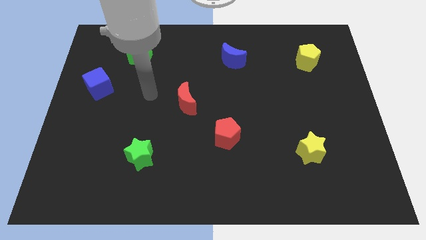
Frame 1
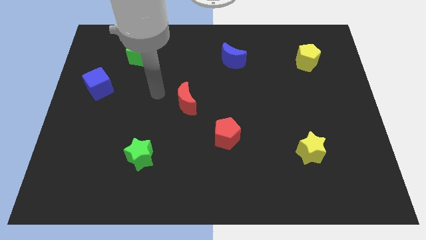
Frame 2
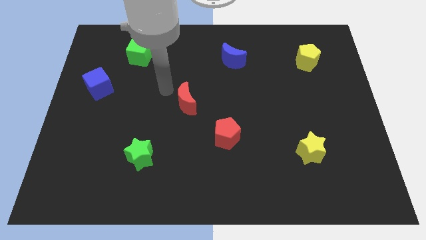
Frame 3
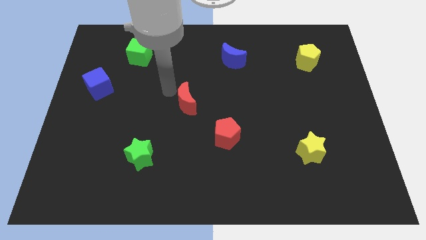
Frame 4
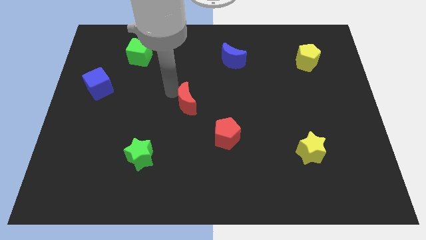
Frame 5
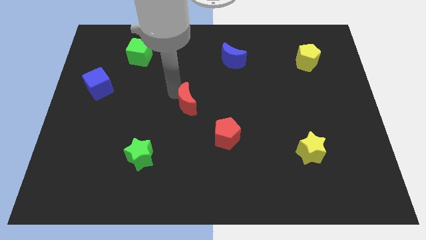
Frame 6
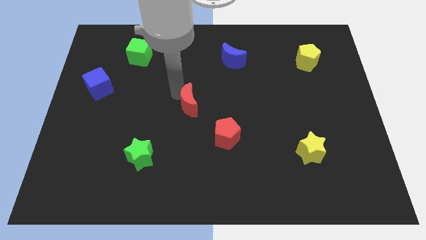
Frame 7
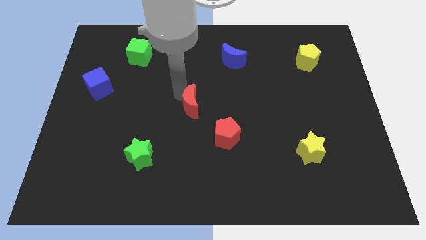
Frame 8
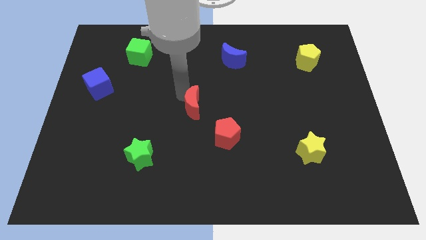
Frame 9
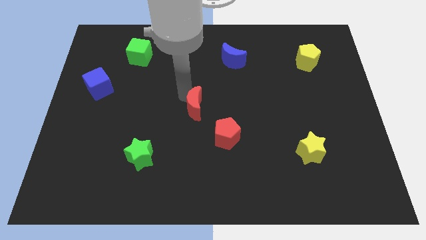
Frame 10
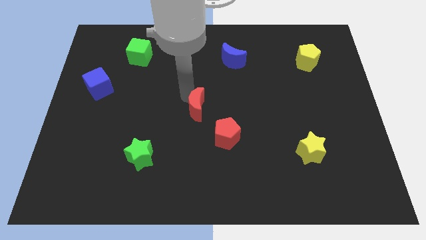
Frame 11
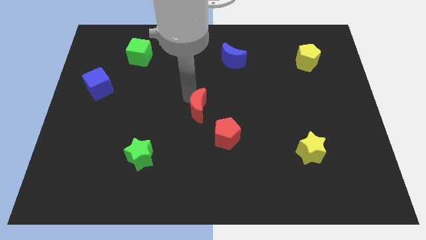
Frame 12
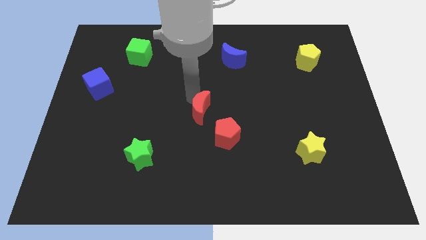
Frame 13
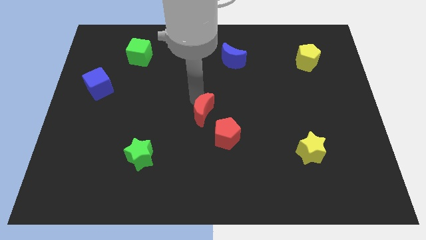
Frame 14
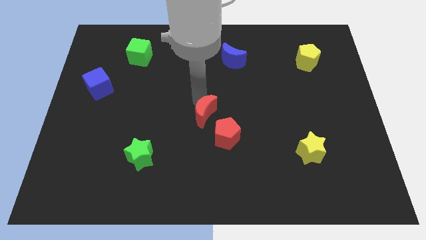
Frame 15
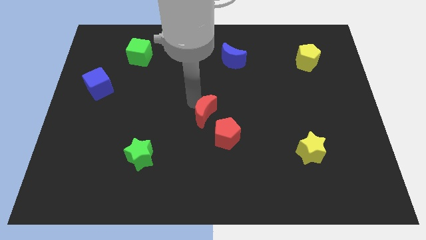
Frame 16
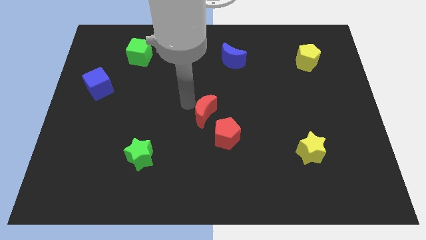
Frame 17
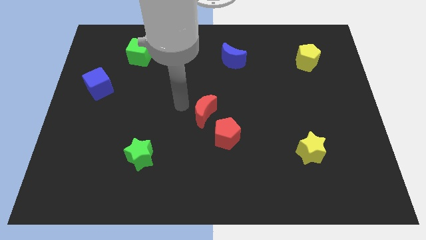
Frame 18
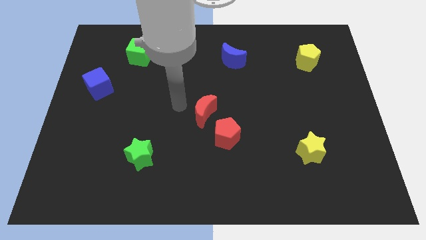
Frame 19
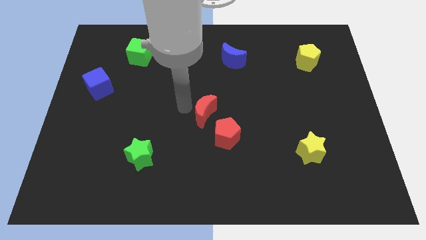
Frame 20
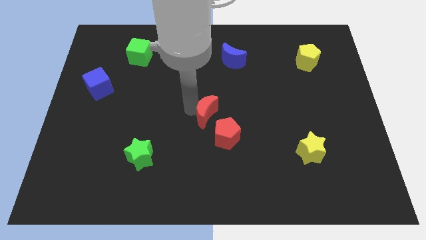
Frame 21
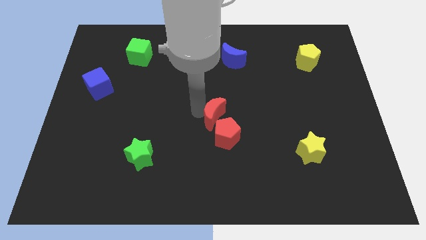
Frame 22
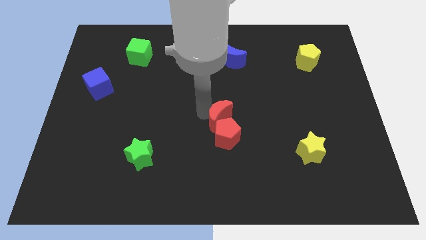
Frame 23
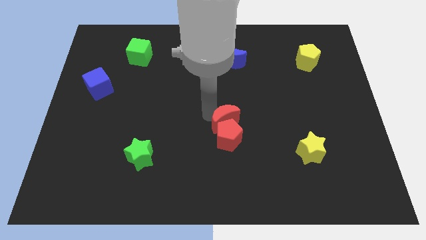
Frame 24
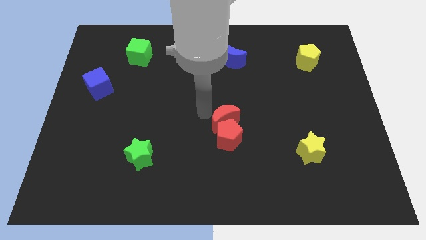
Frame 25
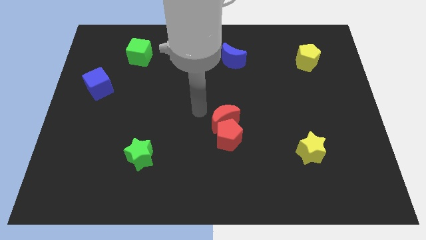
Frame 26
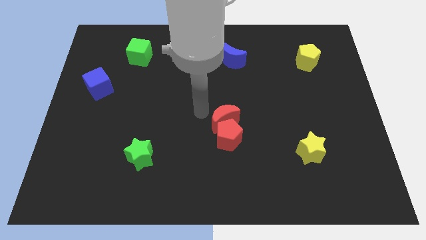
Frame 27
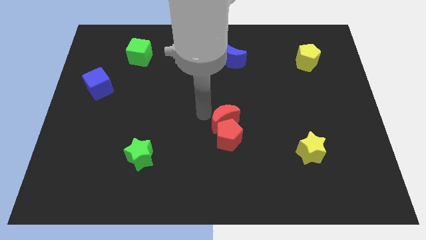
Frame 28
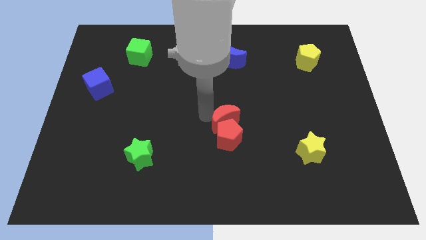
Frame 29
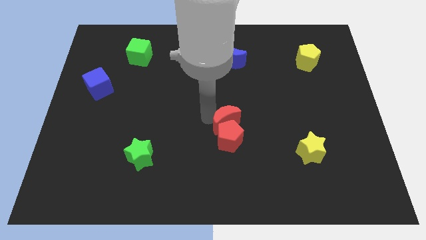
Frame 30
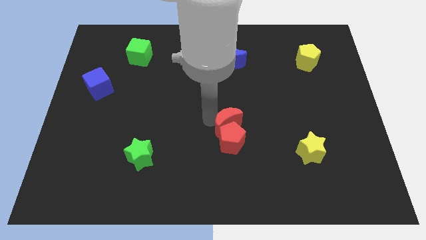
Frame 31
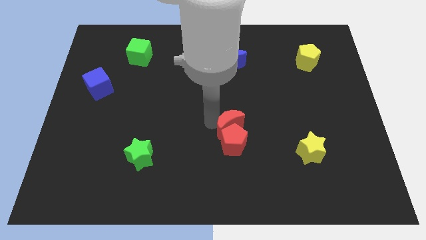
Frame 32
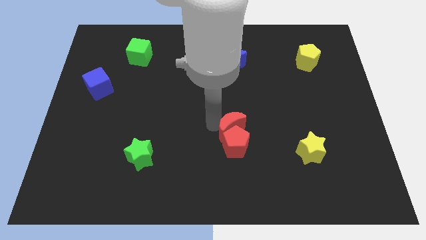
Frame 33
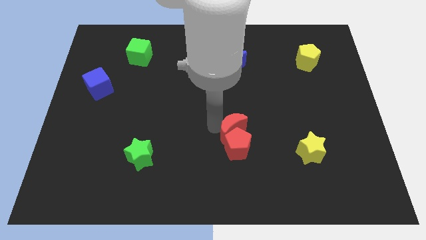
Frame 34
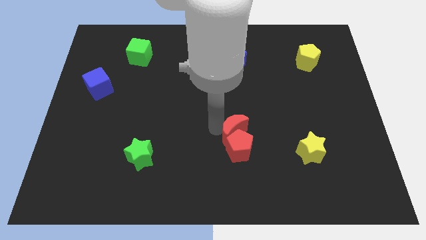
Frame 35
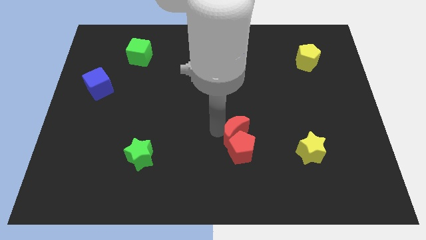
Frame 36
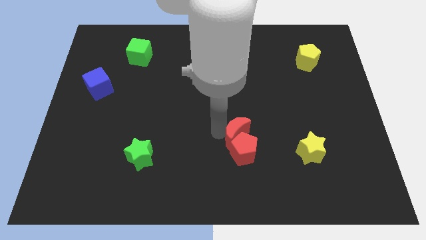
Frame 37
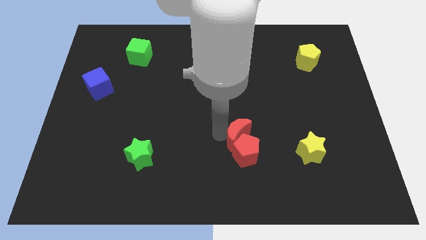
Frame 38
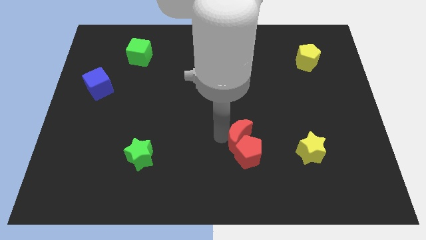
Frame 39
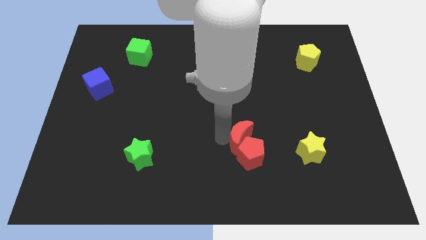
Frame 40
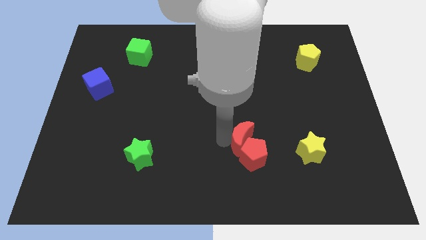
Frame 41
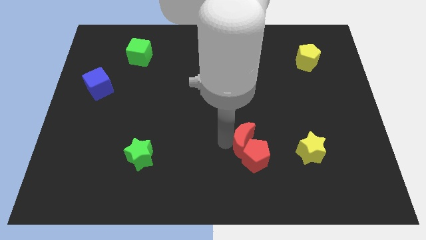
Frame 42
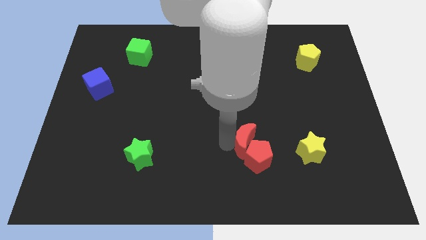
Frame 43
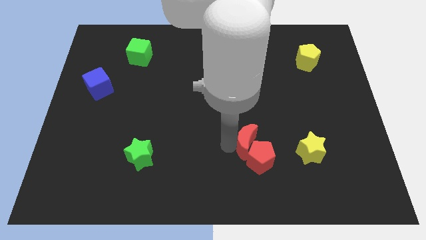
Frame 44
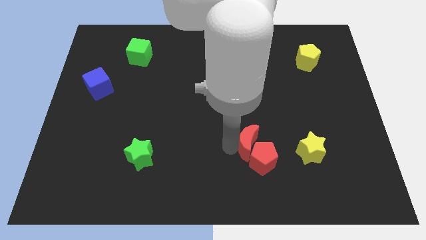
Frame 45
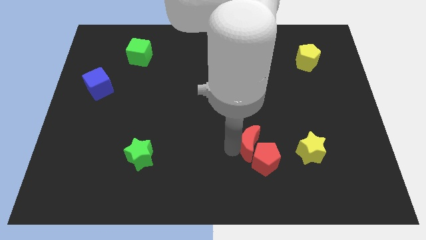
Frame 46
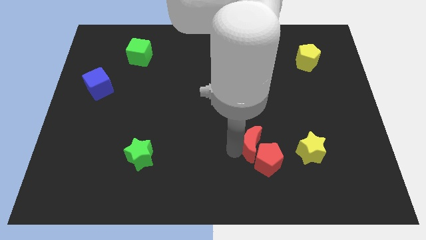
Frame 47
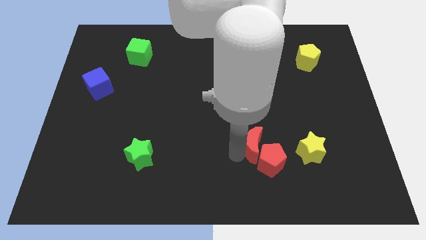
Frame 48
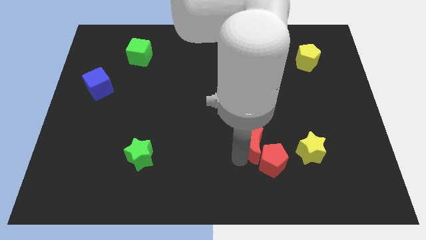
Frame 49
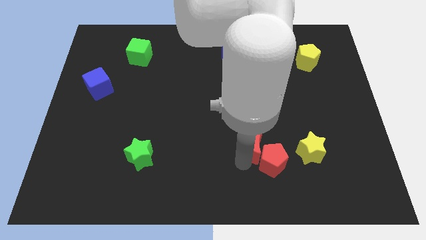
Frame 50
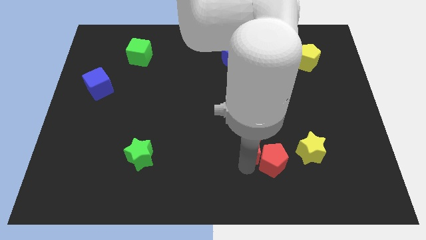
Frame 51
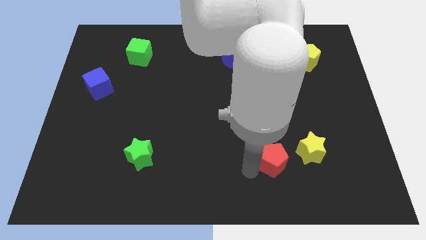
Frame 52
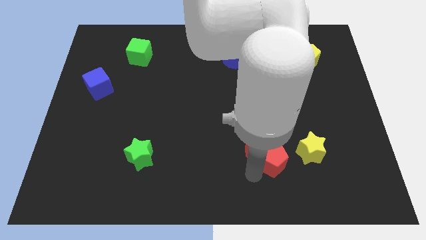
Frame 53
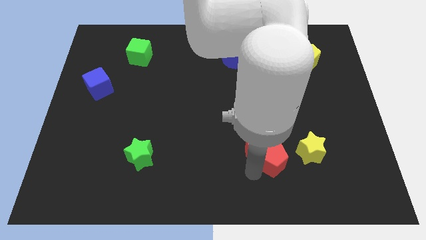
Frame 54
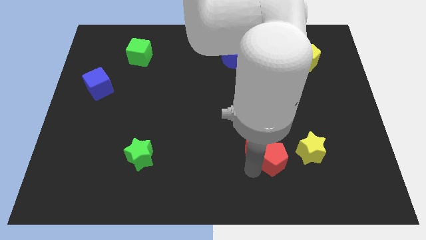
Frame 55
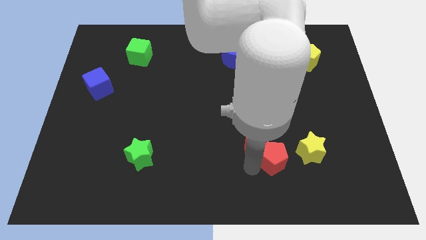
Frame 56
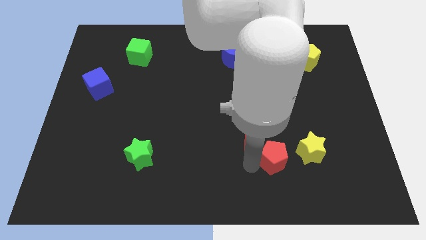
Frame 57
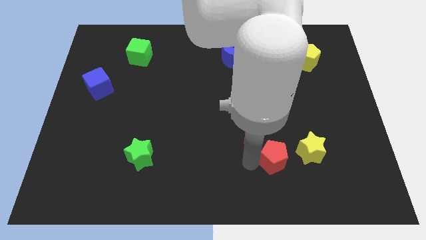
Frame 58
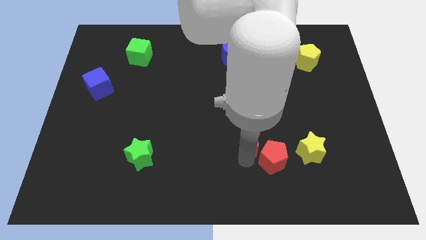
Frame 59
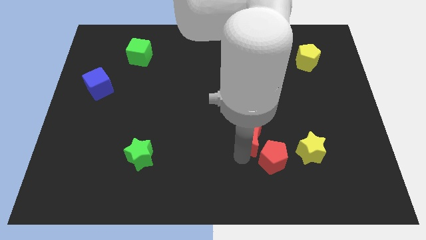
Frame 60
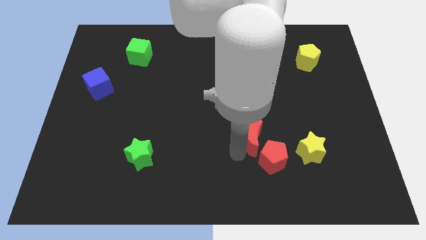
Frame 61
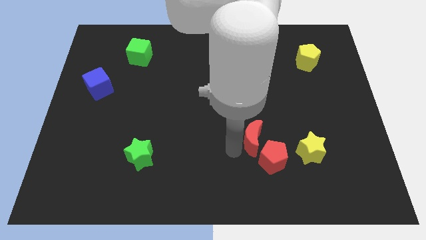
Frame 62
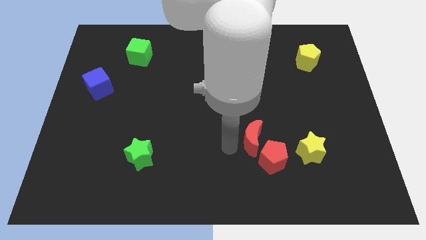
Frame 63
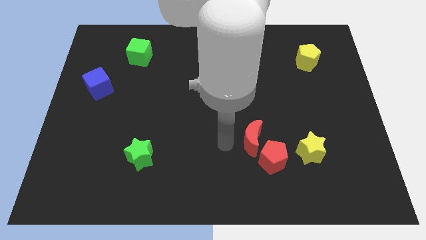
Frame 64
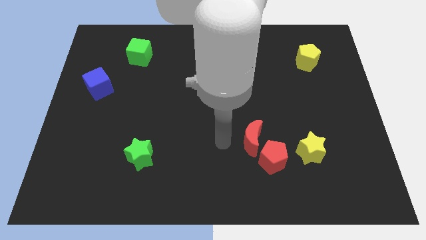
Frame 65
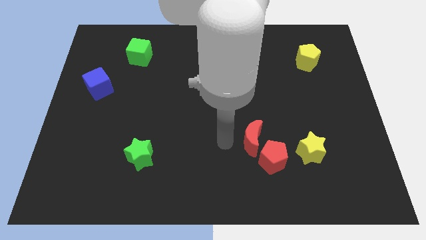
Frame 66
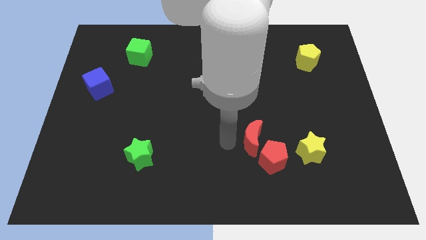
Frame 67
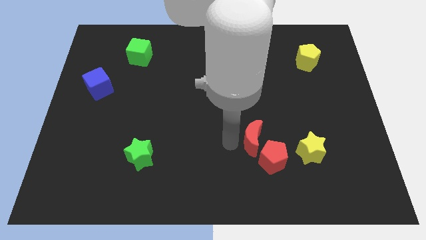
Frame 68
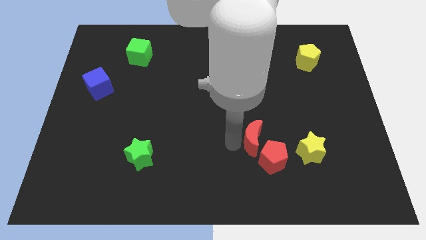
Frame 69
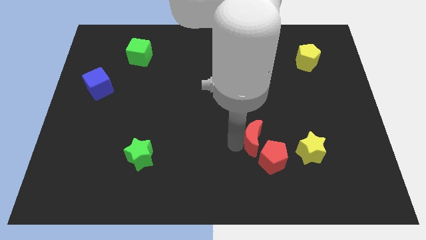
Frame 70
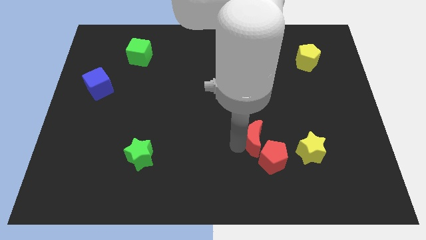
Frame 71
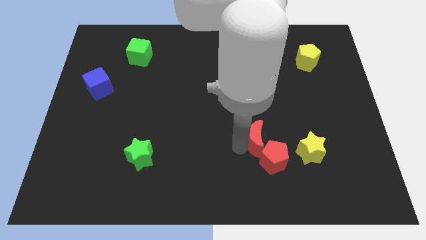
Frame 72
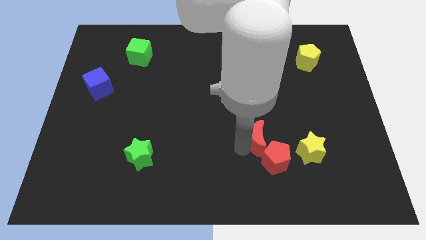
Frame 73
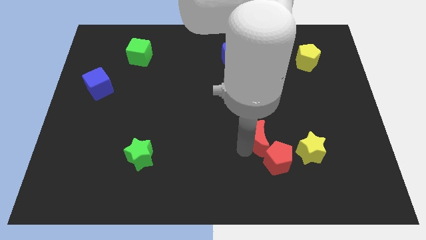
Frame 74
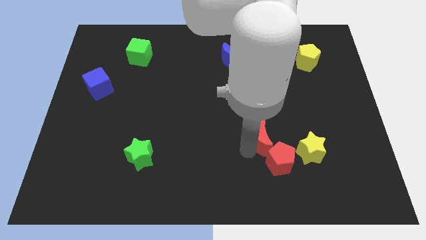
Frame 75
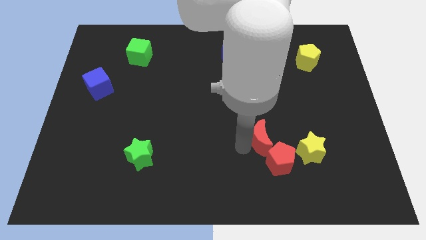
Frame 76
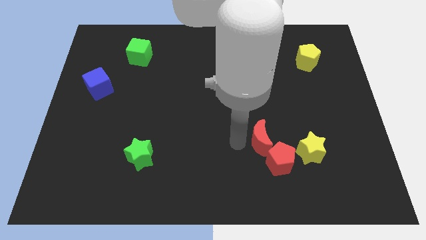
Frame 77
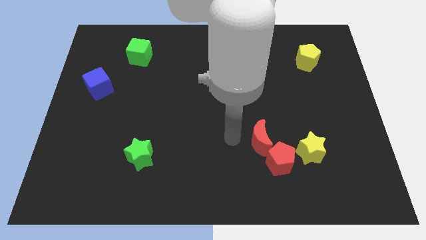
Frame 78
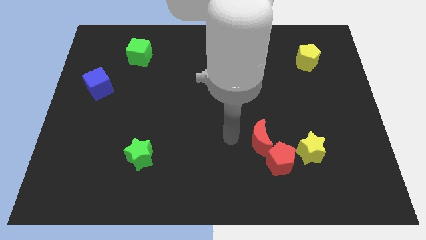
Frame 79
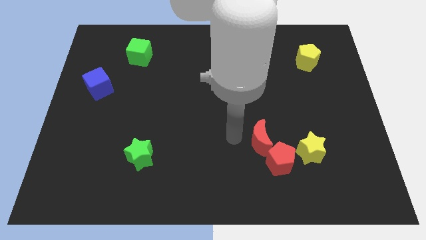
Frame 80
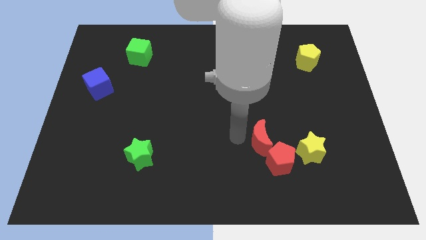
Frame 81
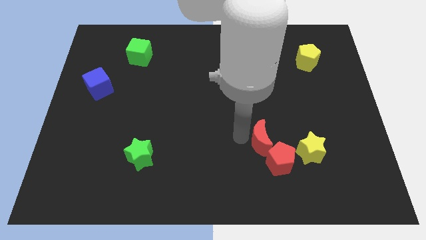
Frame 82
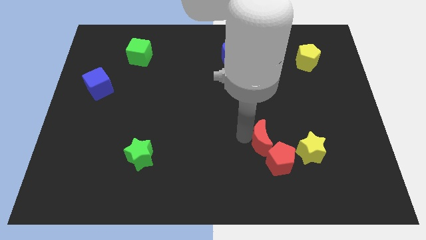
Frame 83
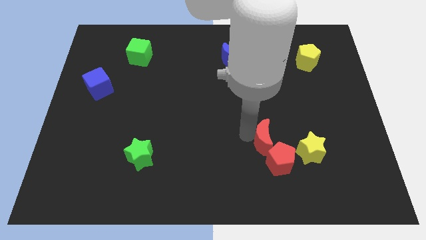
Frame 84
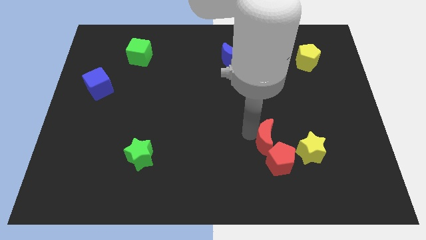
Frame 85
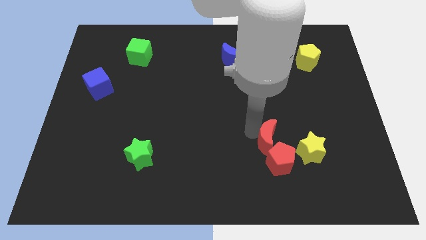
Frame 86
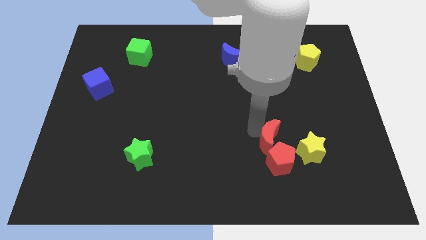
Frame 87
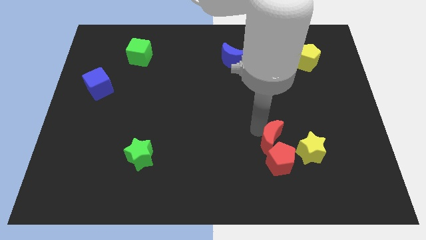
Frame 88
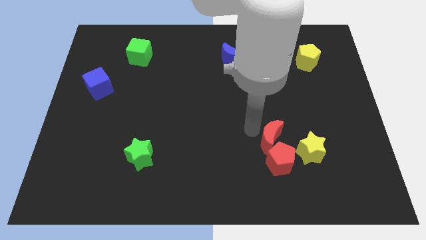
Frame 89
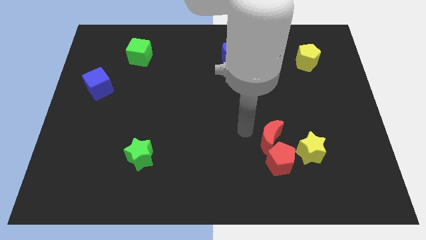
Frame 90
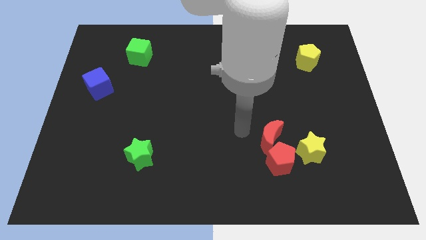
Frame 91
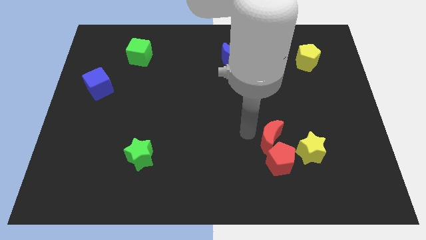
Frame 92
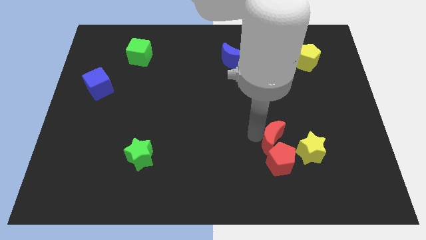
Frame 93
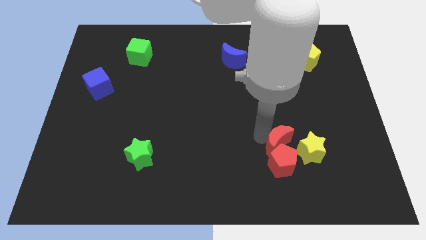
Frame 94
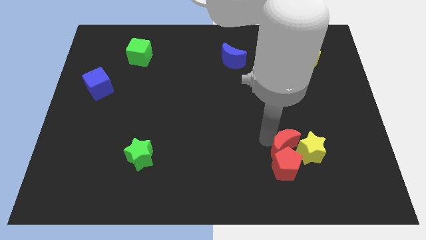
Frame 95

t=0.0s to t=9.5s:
push the red moon to the yellow star
